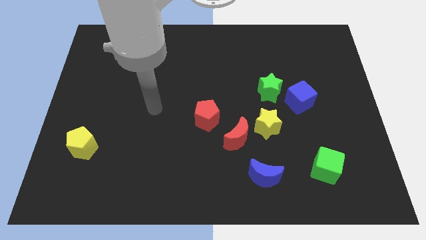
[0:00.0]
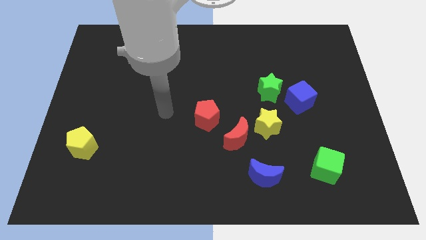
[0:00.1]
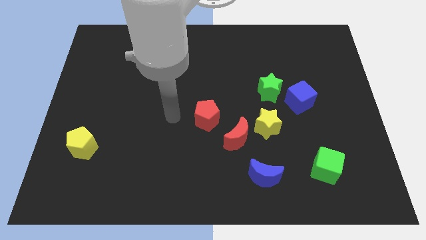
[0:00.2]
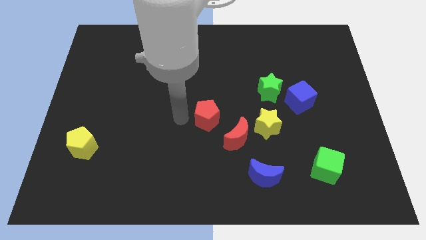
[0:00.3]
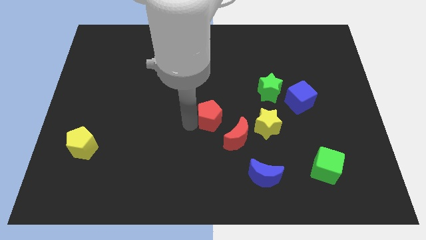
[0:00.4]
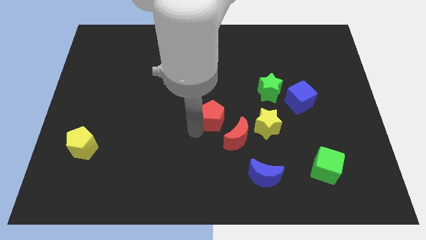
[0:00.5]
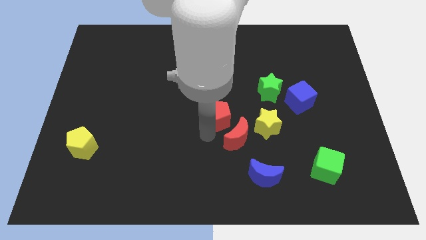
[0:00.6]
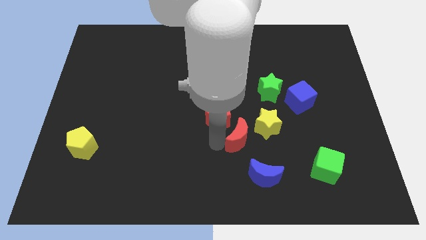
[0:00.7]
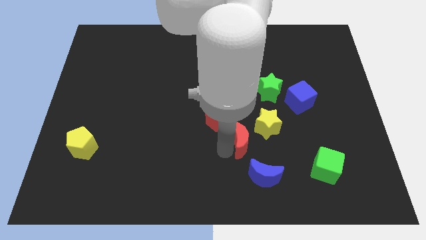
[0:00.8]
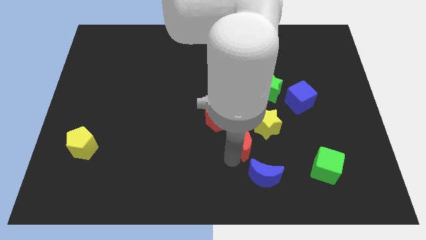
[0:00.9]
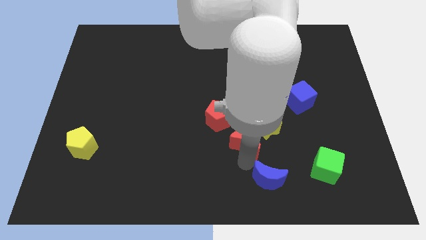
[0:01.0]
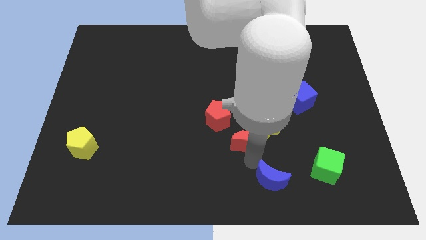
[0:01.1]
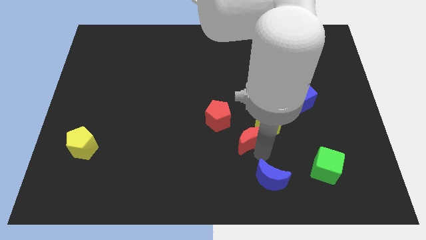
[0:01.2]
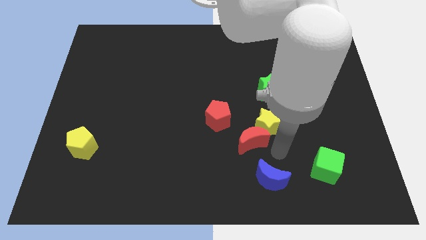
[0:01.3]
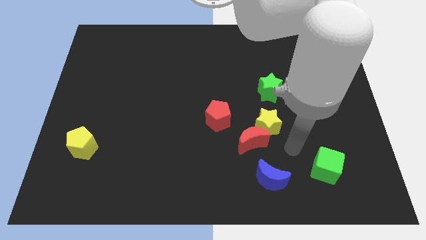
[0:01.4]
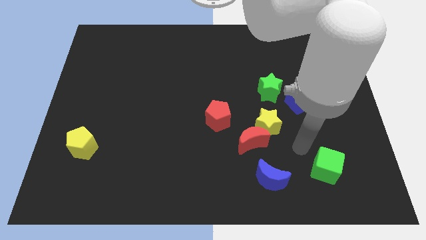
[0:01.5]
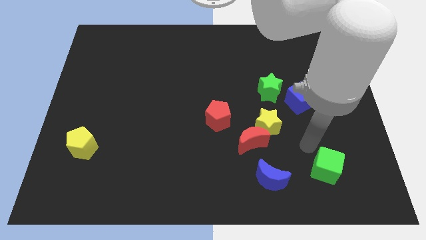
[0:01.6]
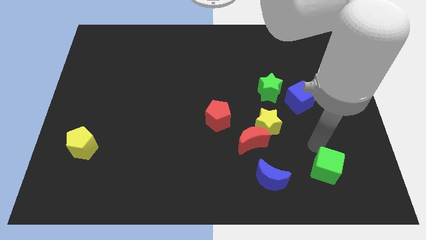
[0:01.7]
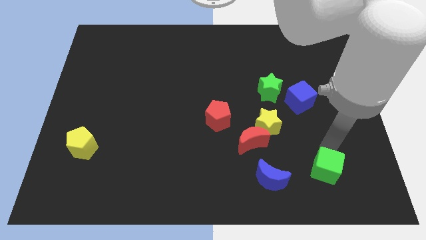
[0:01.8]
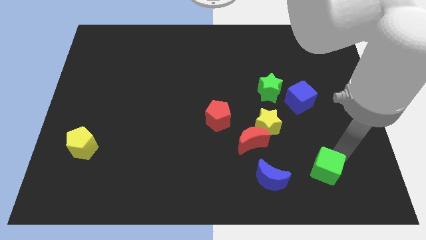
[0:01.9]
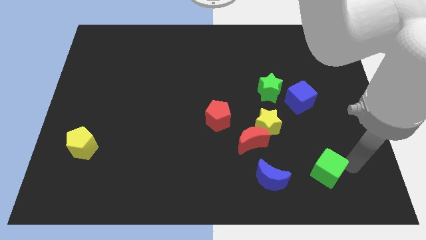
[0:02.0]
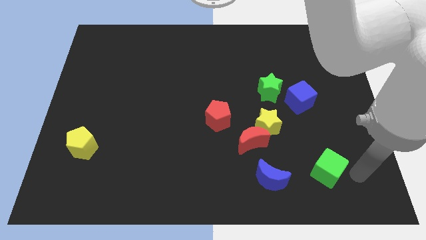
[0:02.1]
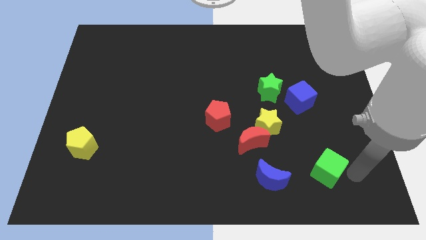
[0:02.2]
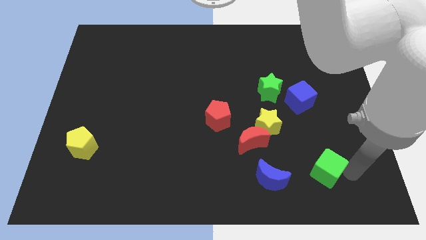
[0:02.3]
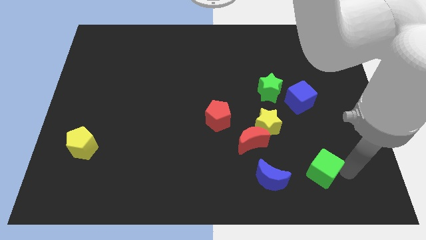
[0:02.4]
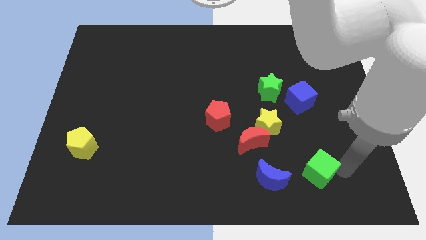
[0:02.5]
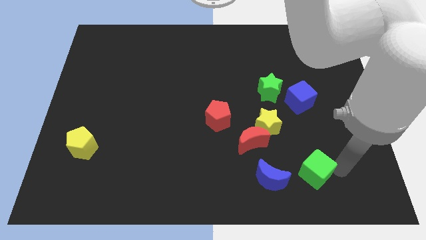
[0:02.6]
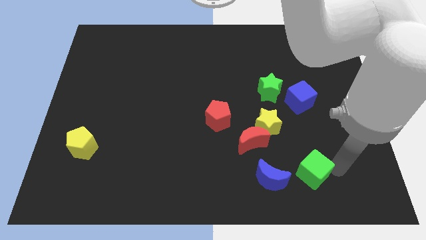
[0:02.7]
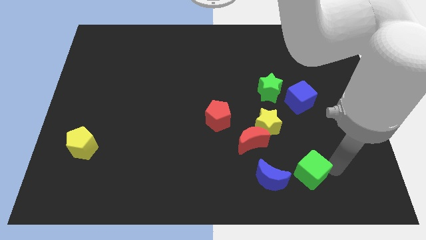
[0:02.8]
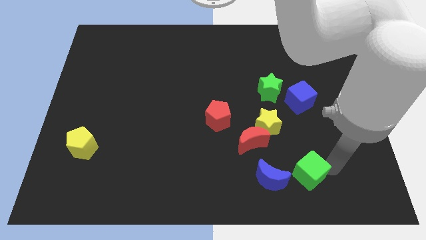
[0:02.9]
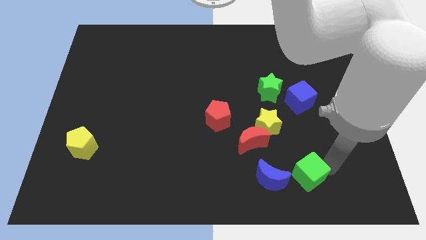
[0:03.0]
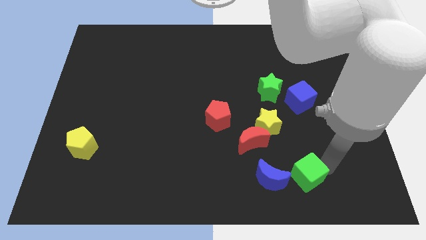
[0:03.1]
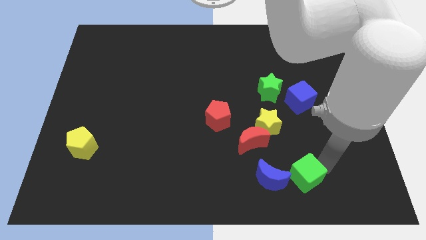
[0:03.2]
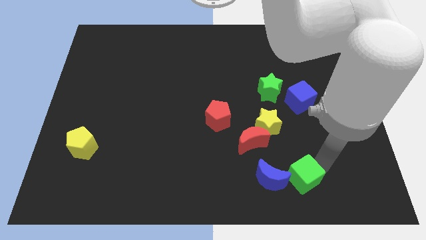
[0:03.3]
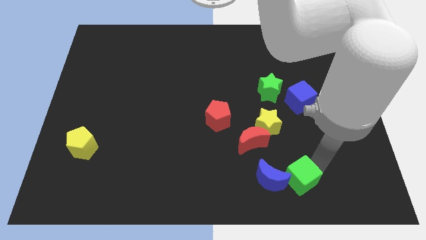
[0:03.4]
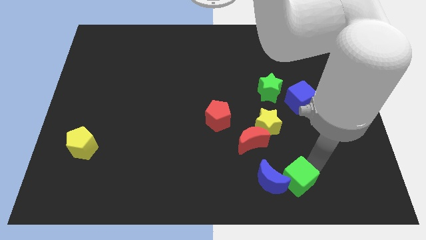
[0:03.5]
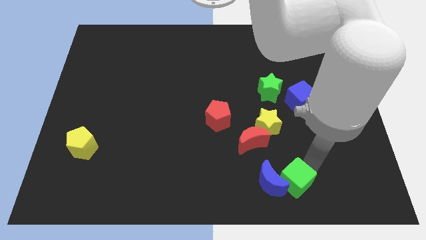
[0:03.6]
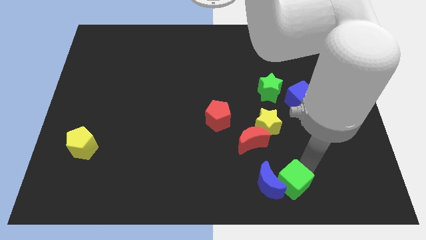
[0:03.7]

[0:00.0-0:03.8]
move the green cube a bit left

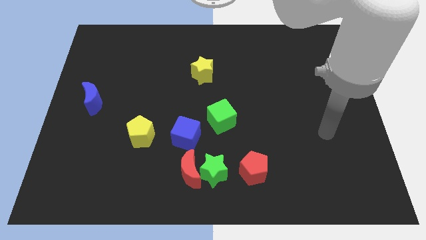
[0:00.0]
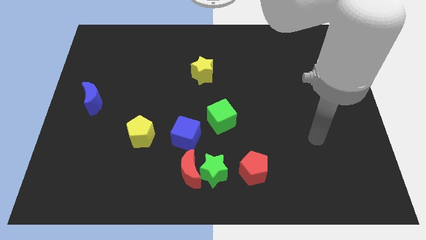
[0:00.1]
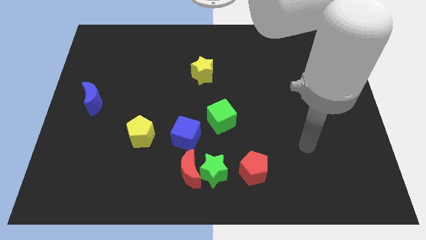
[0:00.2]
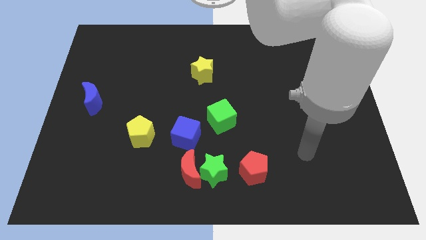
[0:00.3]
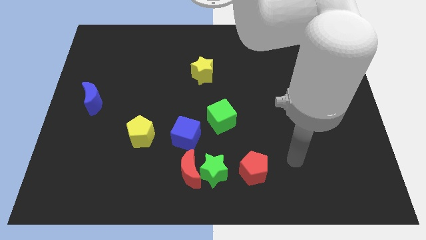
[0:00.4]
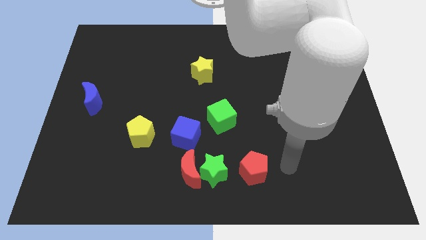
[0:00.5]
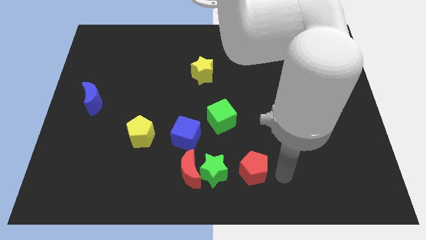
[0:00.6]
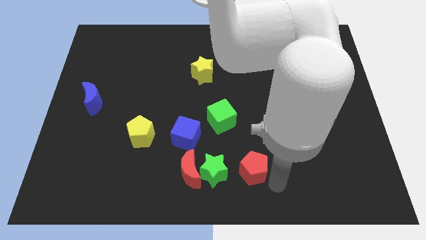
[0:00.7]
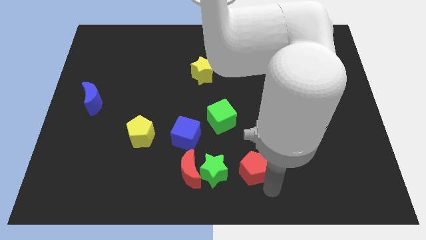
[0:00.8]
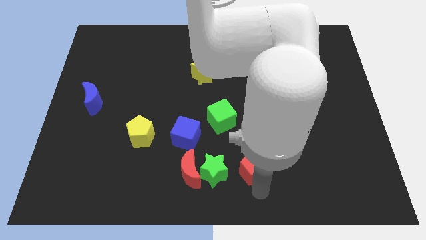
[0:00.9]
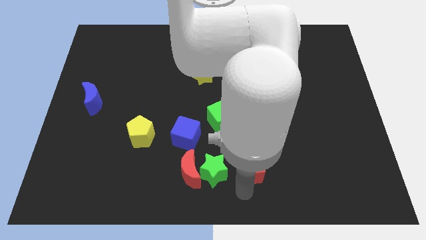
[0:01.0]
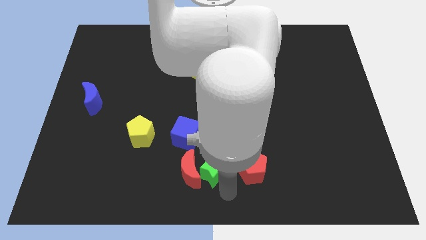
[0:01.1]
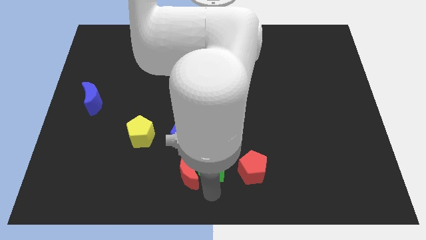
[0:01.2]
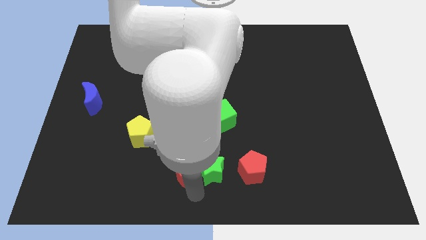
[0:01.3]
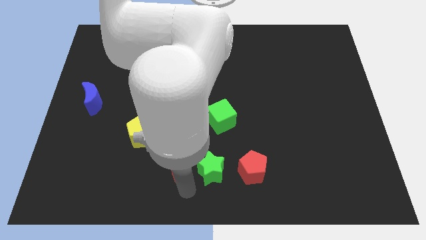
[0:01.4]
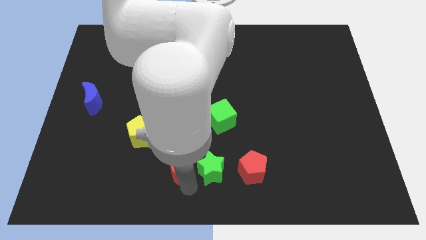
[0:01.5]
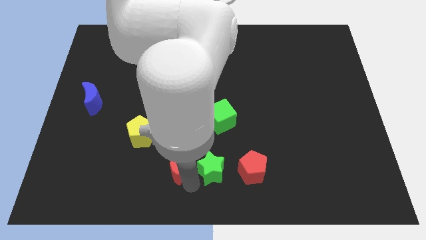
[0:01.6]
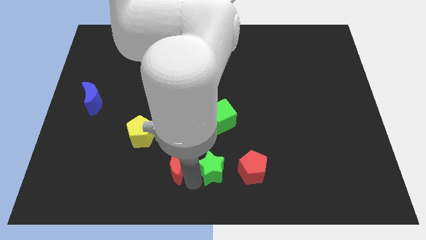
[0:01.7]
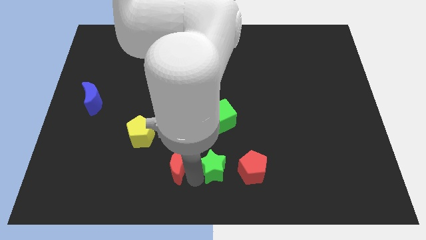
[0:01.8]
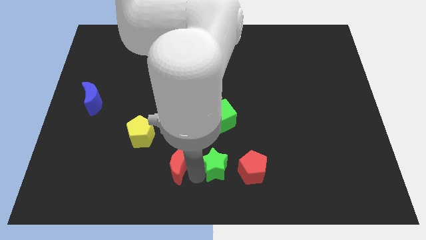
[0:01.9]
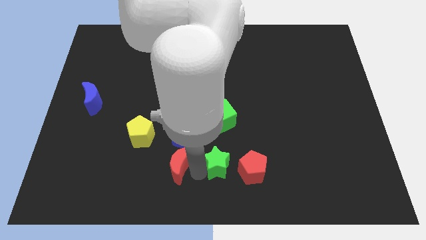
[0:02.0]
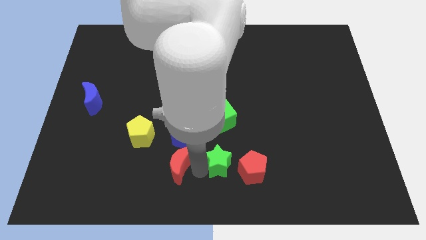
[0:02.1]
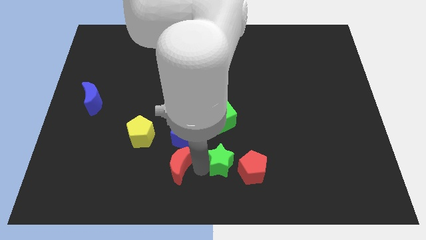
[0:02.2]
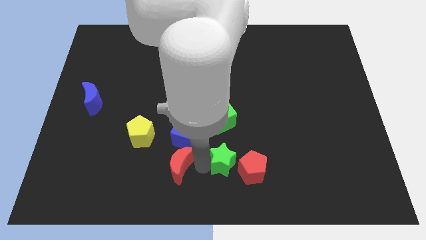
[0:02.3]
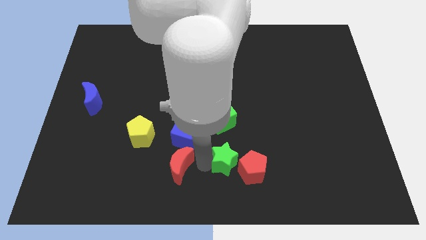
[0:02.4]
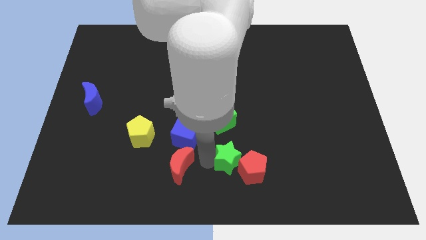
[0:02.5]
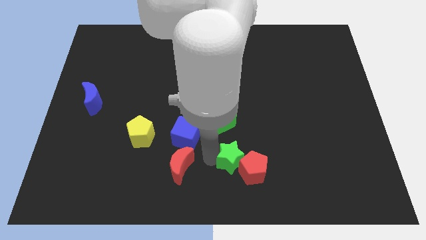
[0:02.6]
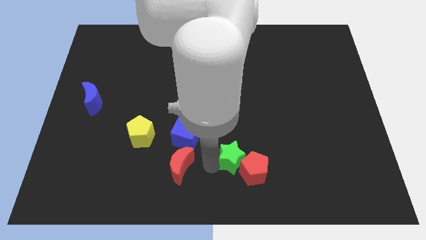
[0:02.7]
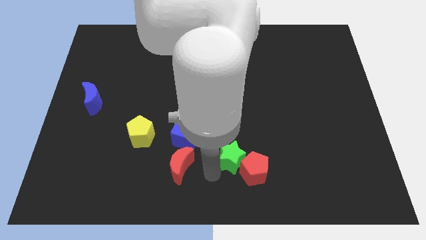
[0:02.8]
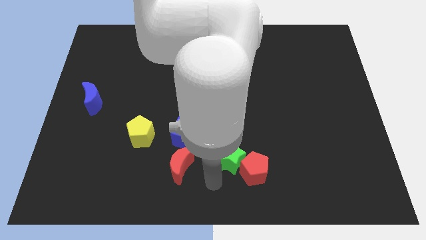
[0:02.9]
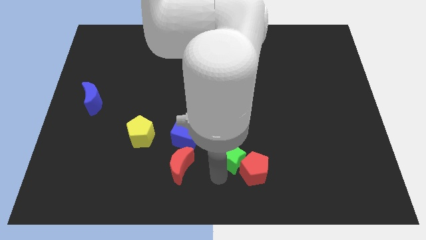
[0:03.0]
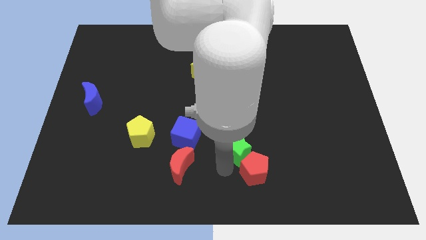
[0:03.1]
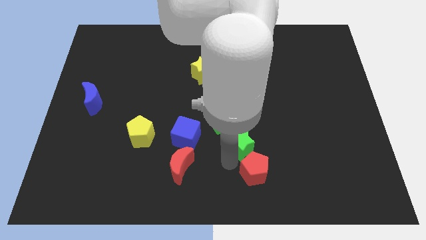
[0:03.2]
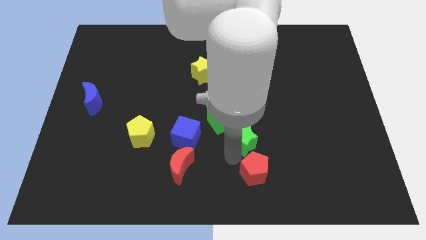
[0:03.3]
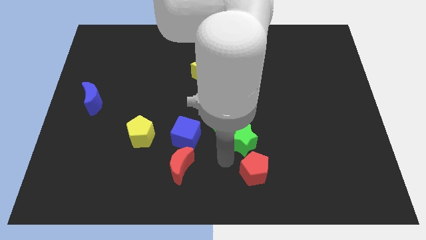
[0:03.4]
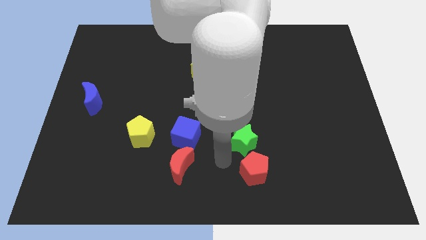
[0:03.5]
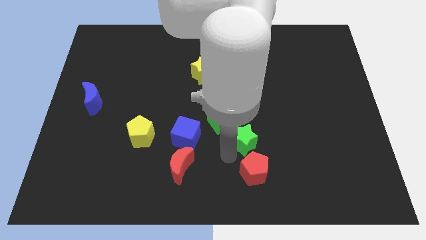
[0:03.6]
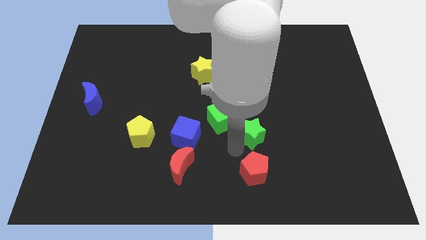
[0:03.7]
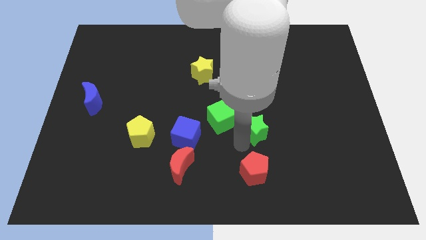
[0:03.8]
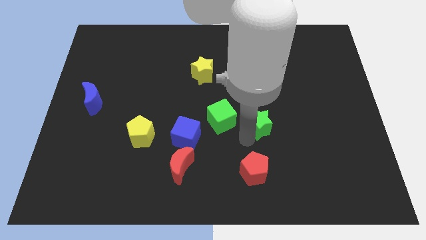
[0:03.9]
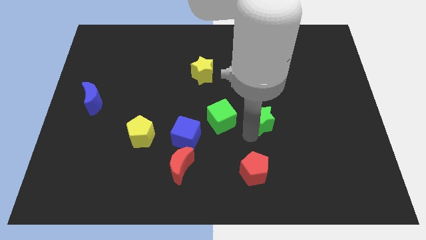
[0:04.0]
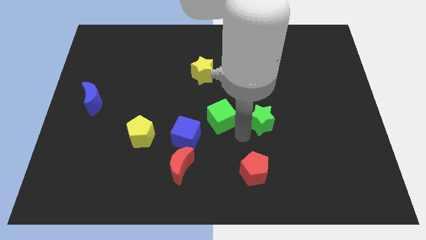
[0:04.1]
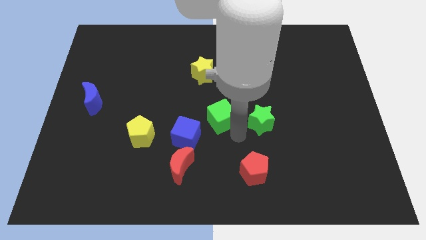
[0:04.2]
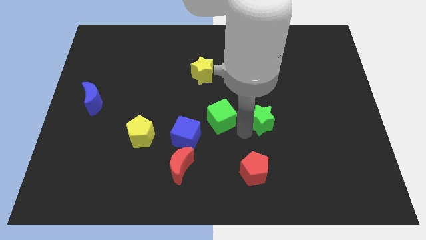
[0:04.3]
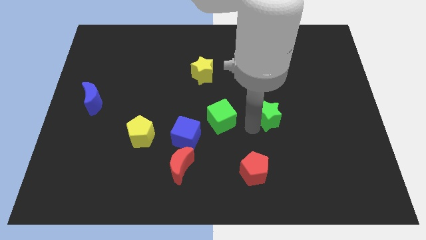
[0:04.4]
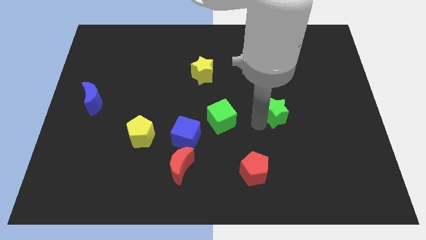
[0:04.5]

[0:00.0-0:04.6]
move the green star up and then right
